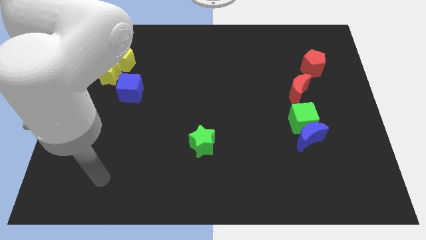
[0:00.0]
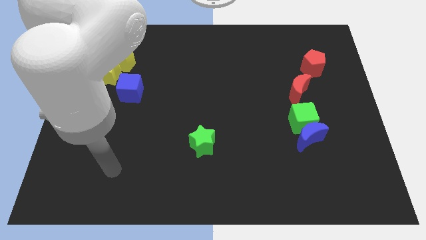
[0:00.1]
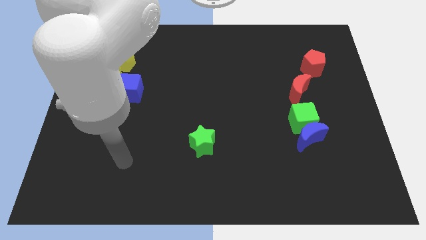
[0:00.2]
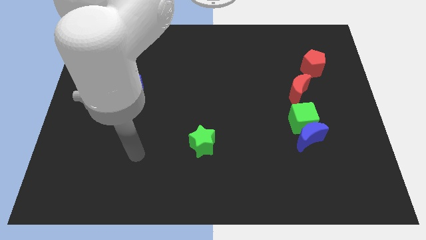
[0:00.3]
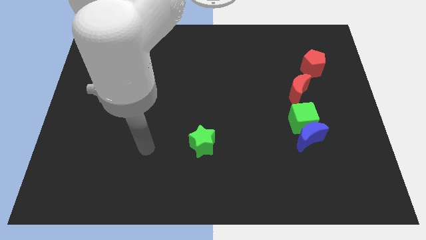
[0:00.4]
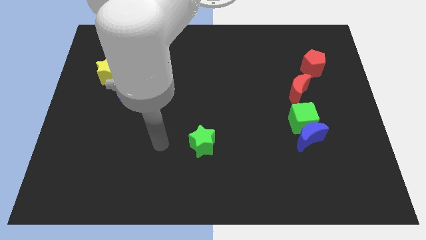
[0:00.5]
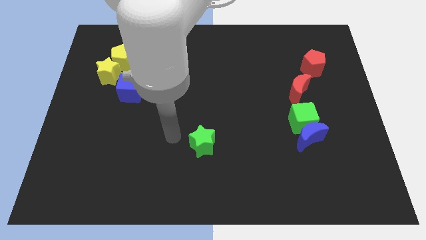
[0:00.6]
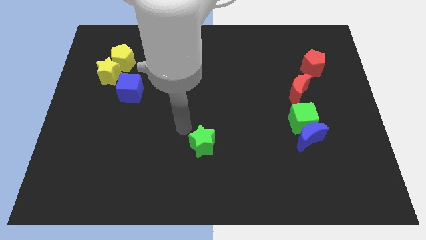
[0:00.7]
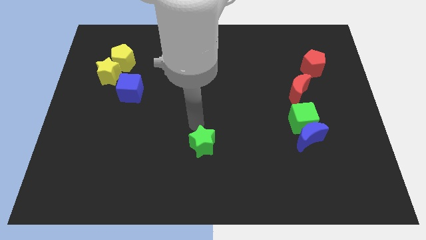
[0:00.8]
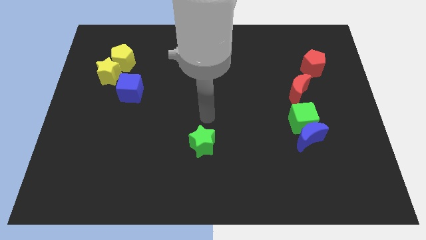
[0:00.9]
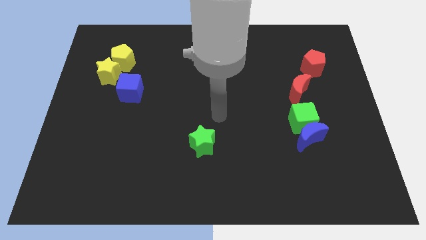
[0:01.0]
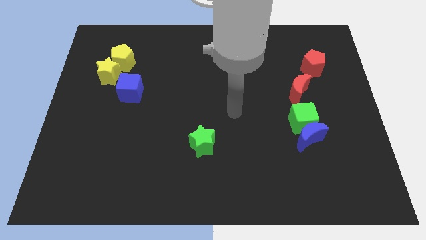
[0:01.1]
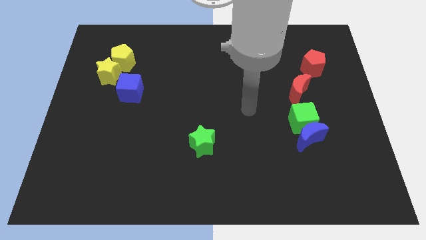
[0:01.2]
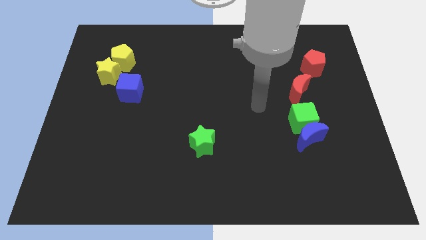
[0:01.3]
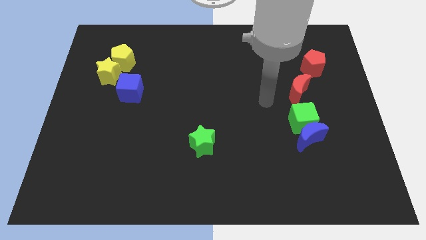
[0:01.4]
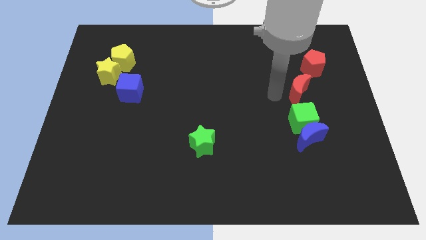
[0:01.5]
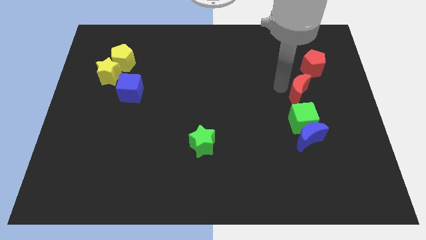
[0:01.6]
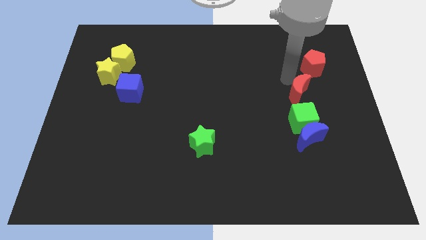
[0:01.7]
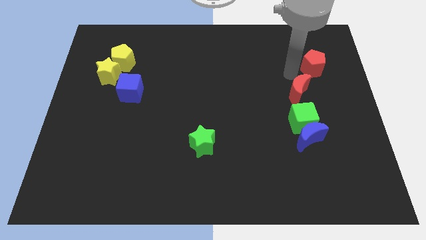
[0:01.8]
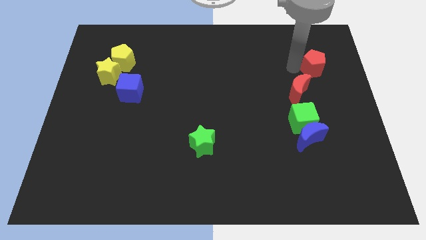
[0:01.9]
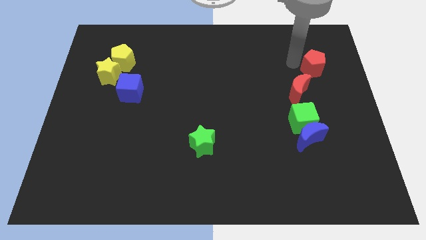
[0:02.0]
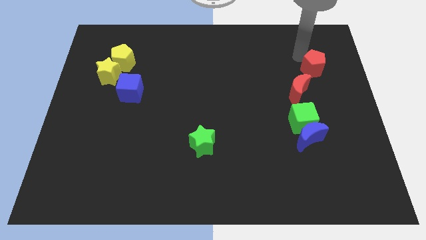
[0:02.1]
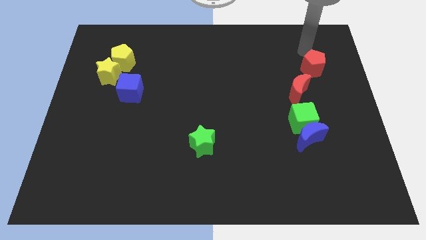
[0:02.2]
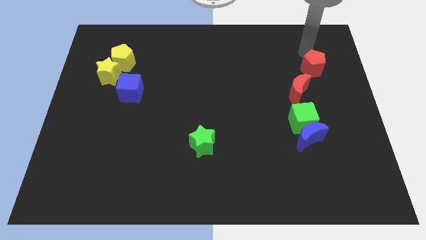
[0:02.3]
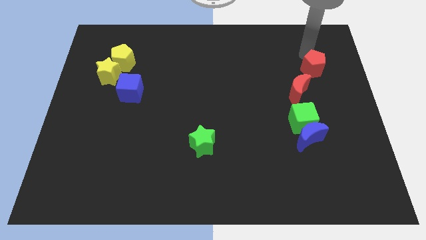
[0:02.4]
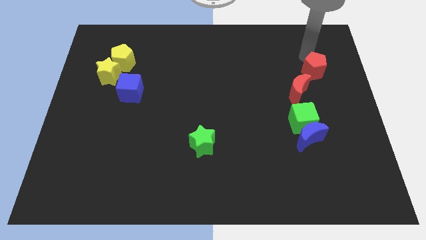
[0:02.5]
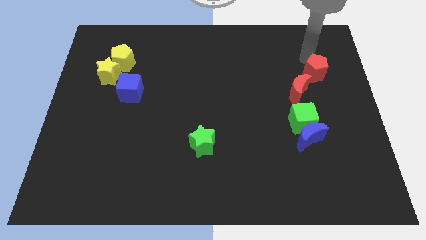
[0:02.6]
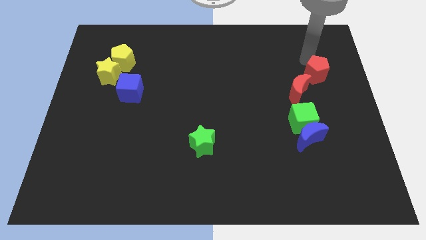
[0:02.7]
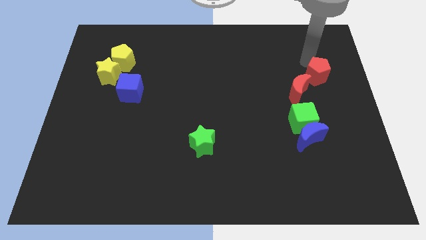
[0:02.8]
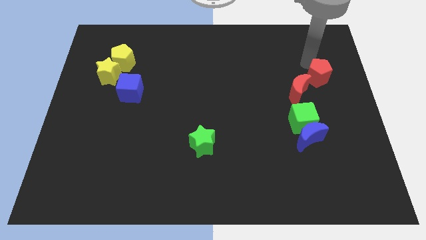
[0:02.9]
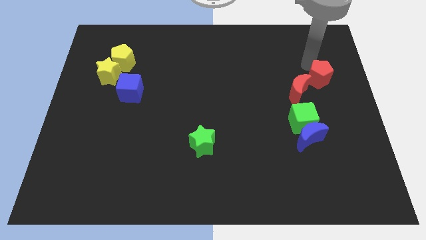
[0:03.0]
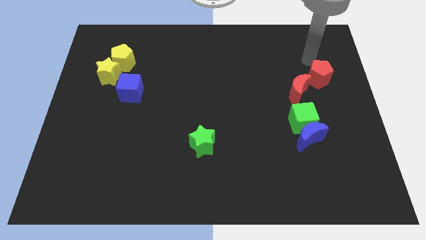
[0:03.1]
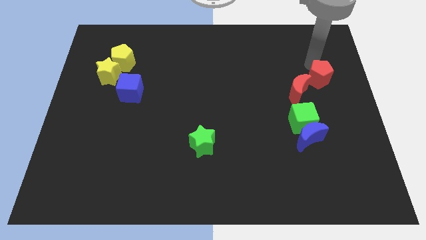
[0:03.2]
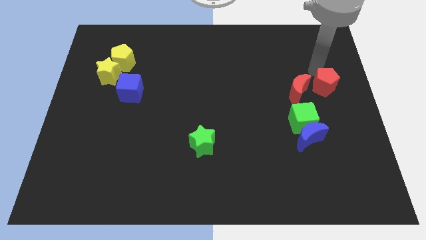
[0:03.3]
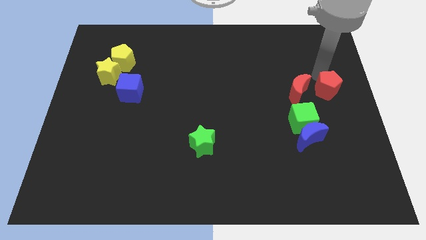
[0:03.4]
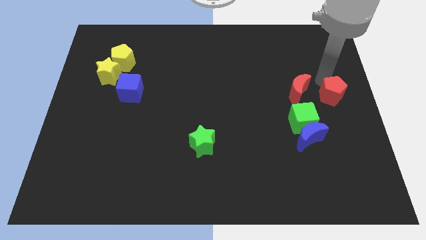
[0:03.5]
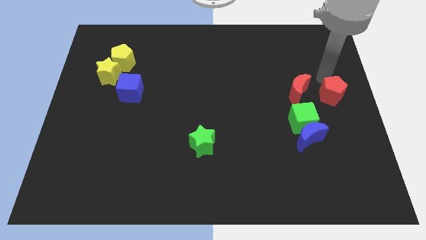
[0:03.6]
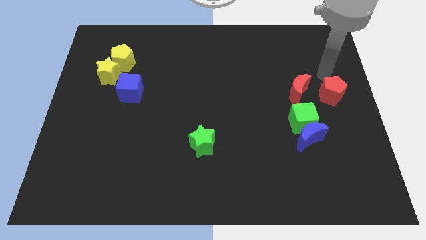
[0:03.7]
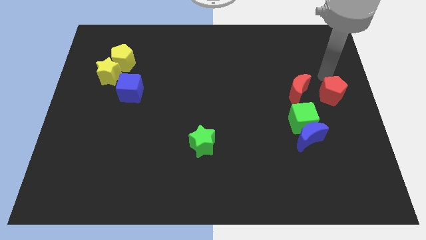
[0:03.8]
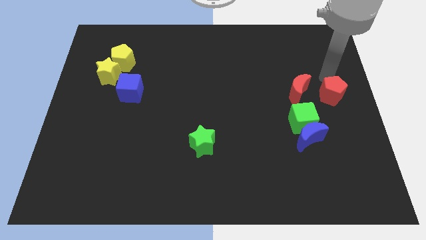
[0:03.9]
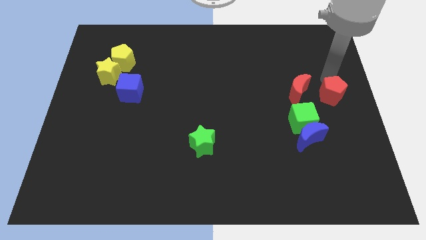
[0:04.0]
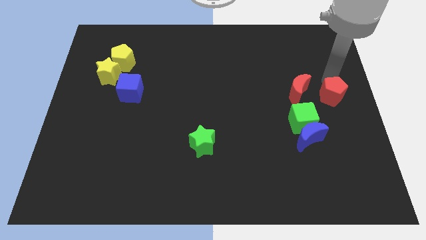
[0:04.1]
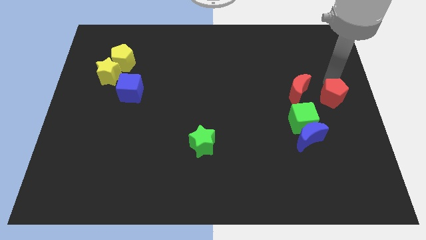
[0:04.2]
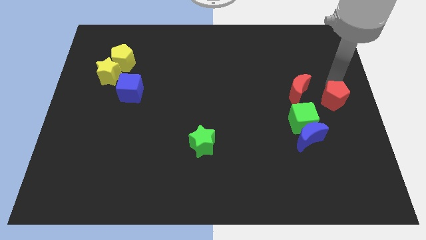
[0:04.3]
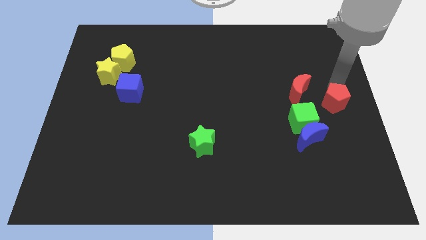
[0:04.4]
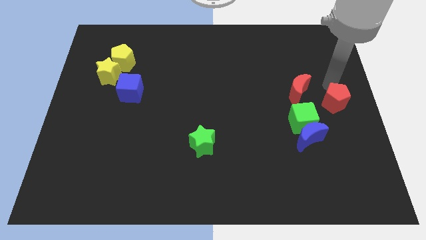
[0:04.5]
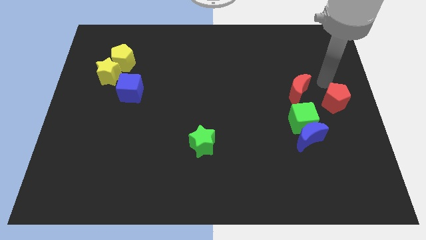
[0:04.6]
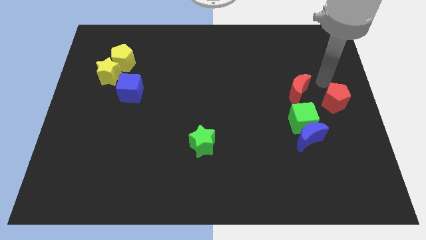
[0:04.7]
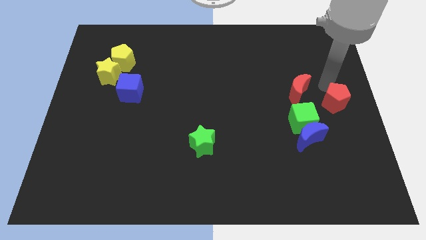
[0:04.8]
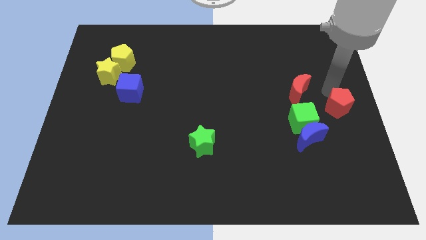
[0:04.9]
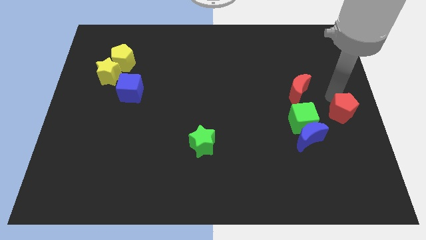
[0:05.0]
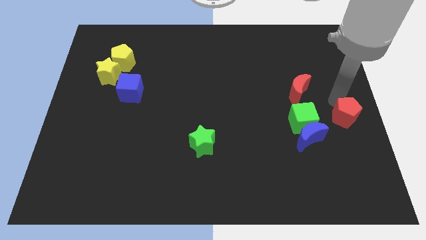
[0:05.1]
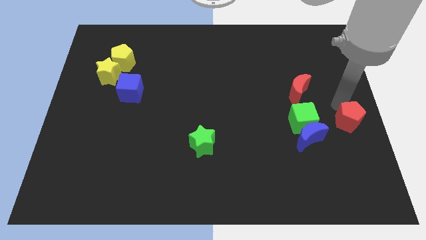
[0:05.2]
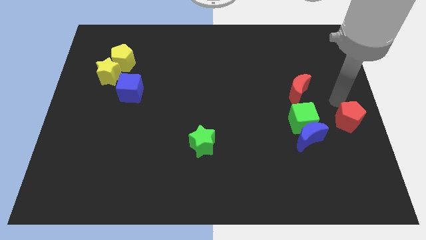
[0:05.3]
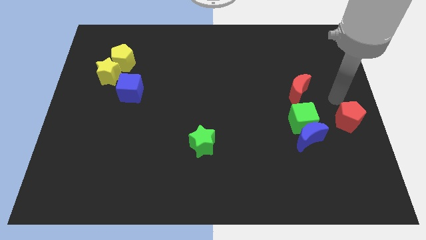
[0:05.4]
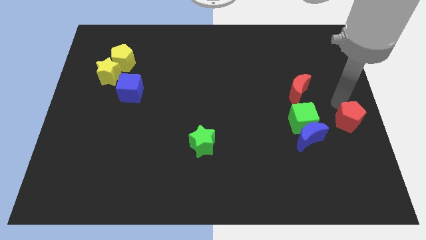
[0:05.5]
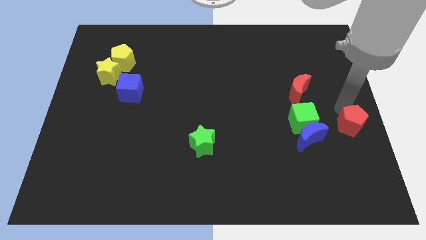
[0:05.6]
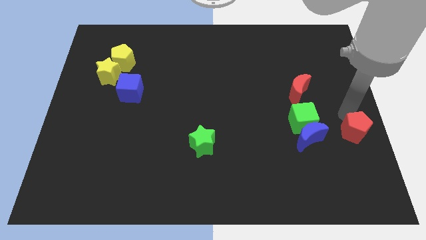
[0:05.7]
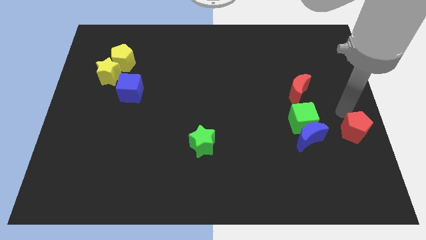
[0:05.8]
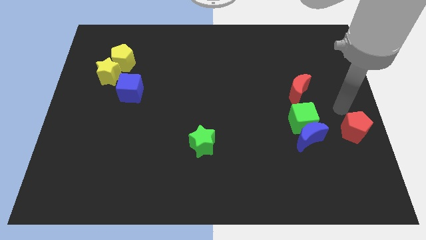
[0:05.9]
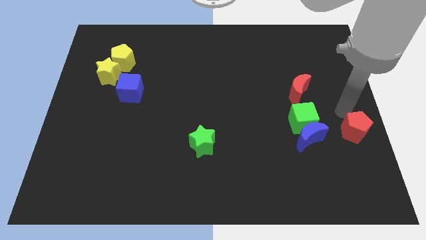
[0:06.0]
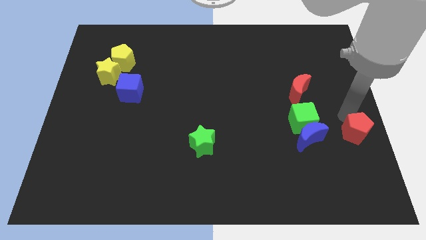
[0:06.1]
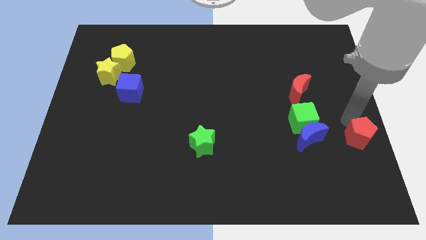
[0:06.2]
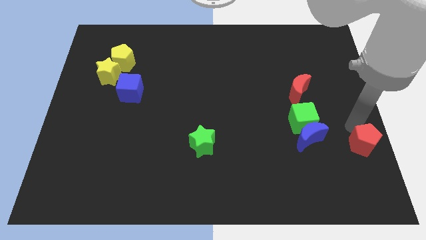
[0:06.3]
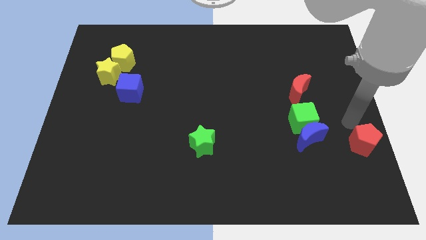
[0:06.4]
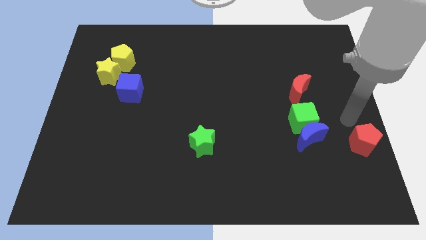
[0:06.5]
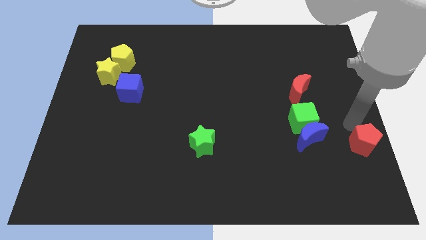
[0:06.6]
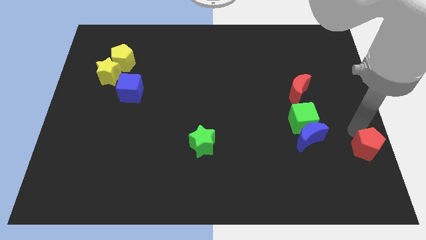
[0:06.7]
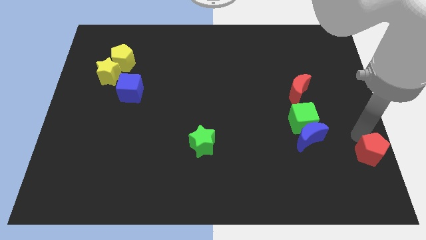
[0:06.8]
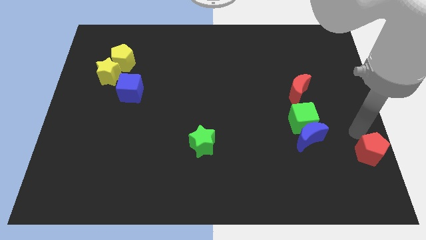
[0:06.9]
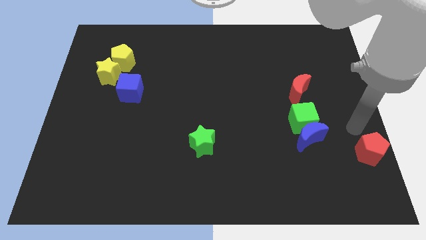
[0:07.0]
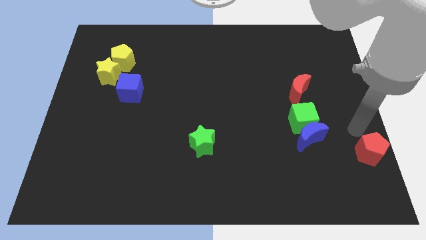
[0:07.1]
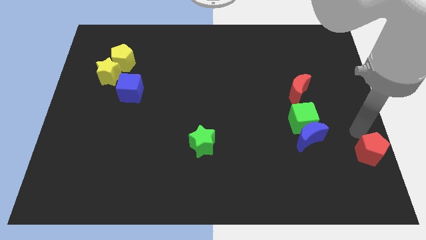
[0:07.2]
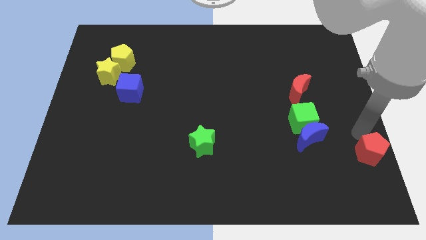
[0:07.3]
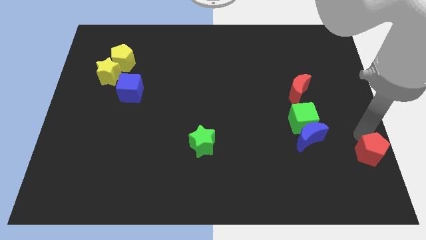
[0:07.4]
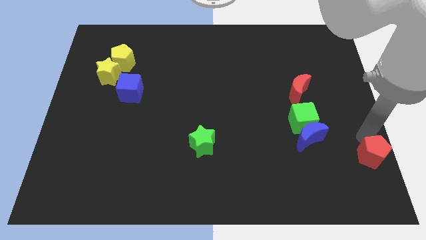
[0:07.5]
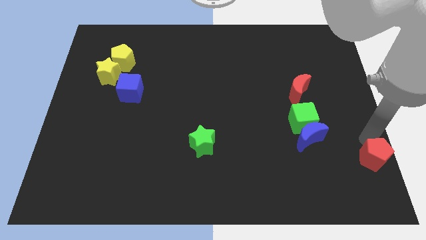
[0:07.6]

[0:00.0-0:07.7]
slide the red pentagon to the bottom right
